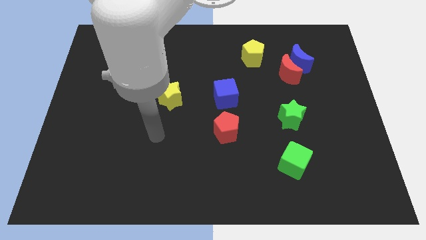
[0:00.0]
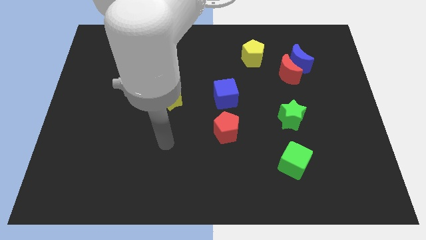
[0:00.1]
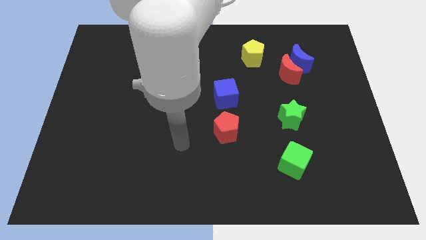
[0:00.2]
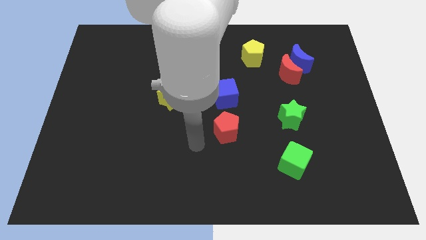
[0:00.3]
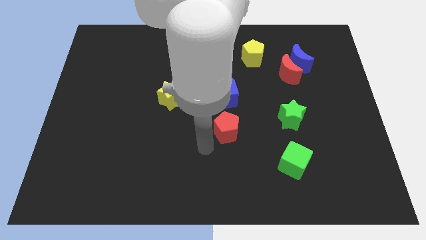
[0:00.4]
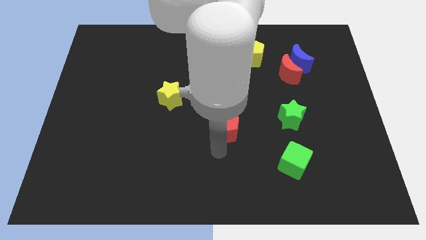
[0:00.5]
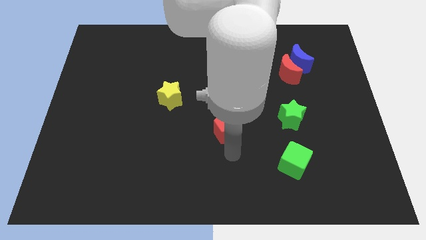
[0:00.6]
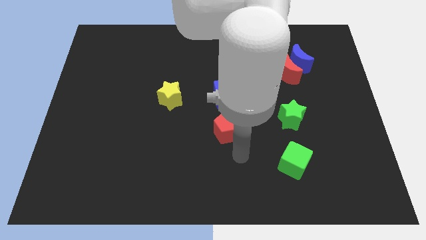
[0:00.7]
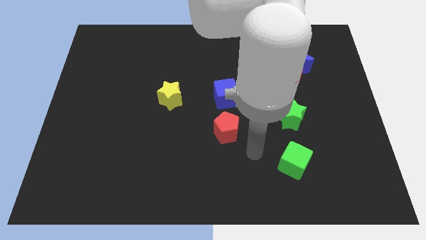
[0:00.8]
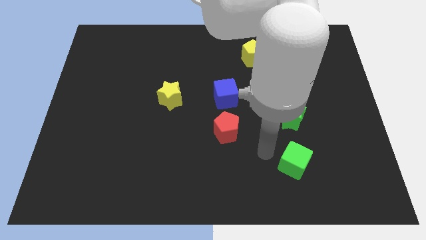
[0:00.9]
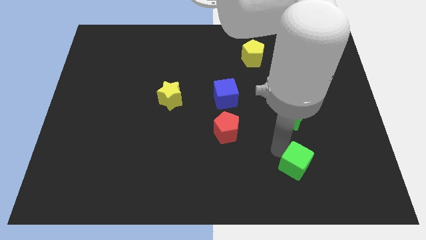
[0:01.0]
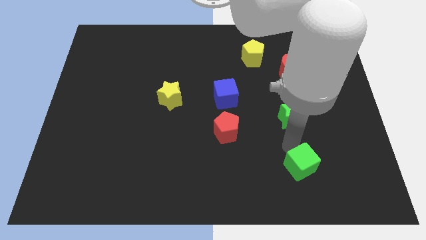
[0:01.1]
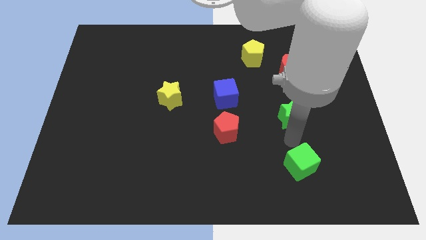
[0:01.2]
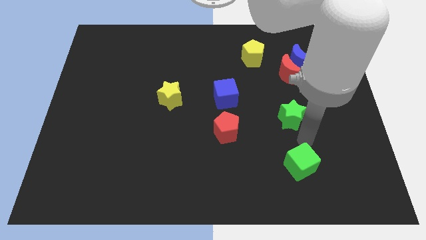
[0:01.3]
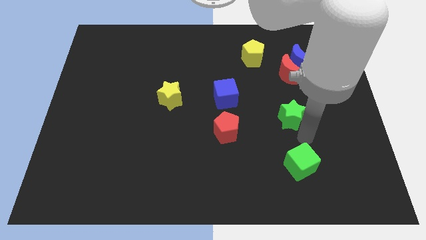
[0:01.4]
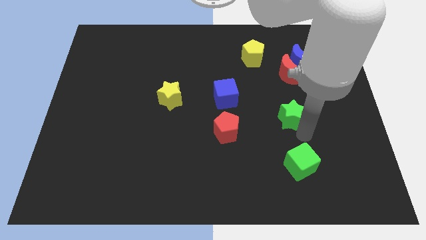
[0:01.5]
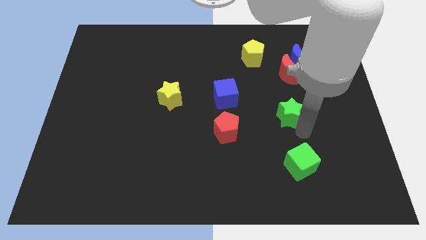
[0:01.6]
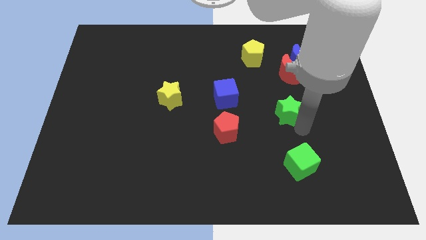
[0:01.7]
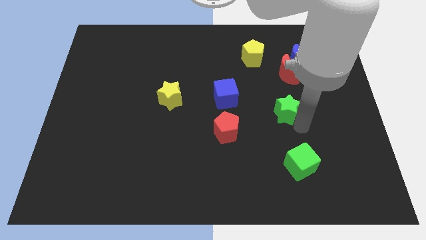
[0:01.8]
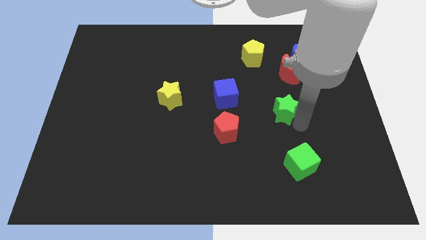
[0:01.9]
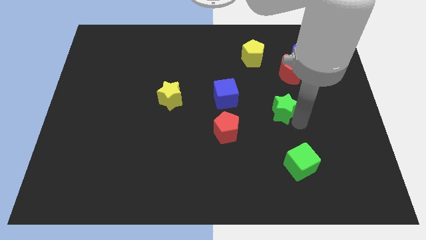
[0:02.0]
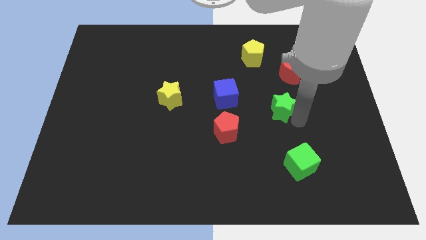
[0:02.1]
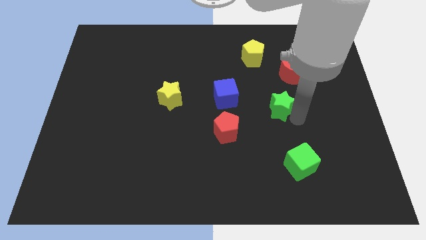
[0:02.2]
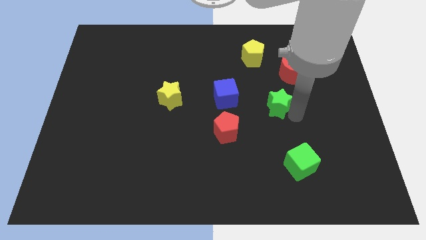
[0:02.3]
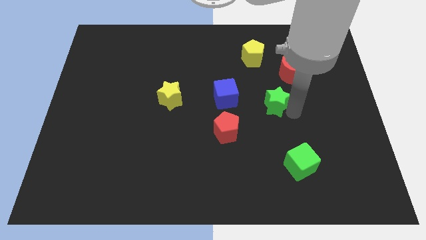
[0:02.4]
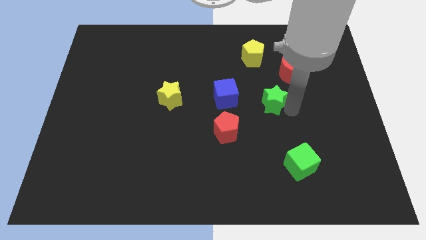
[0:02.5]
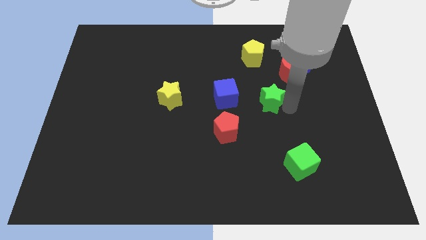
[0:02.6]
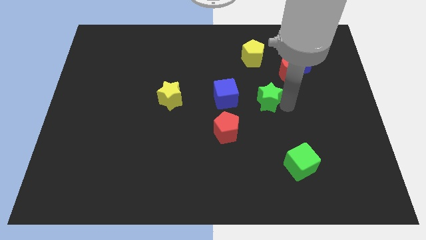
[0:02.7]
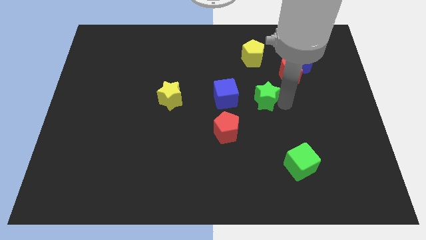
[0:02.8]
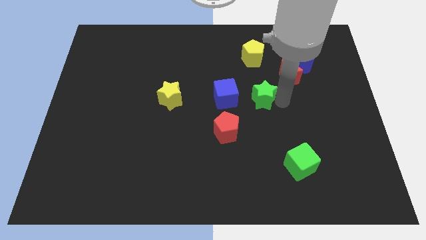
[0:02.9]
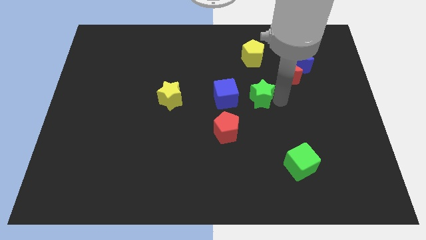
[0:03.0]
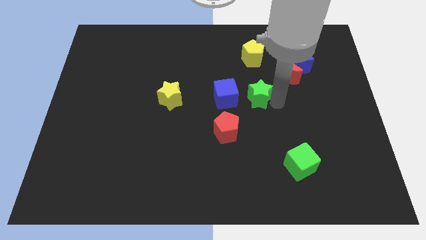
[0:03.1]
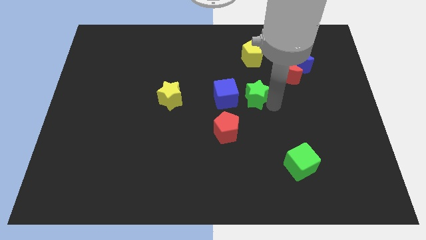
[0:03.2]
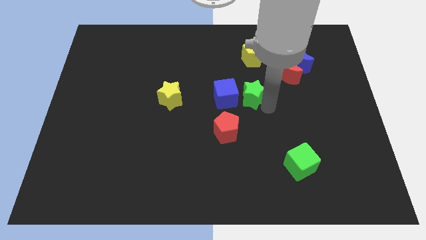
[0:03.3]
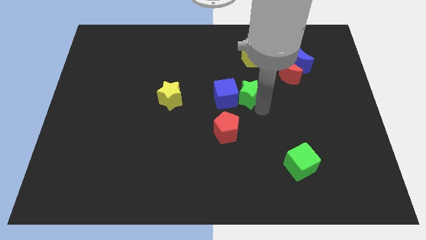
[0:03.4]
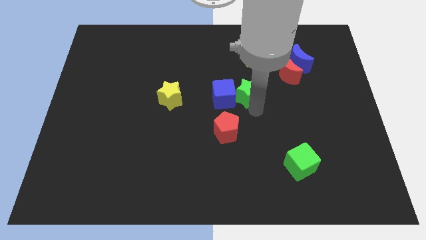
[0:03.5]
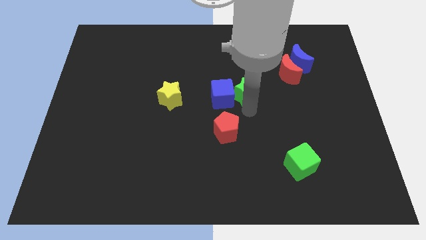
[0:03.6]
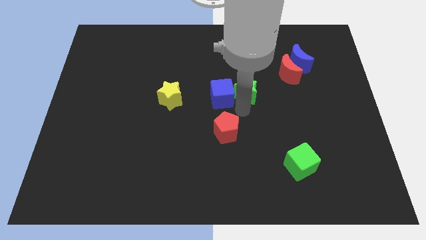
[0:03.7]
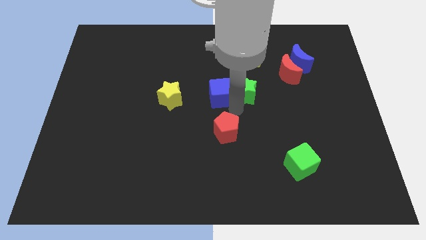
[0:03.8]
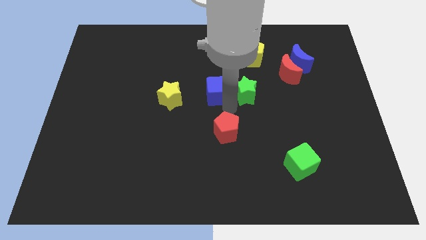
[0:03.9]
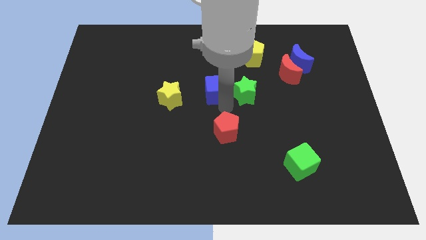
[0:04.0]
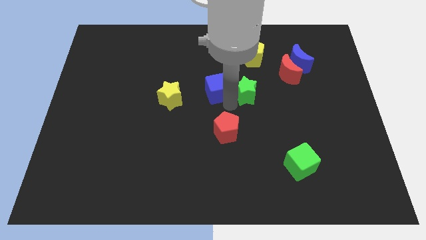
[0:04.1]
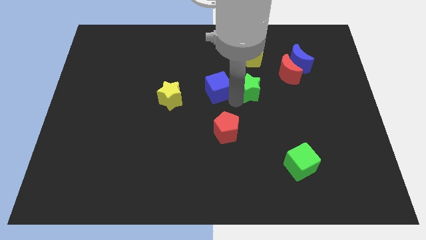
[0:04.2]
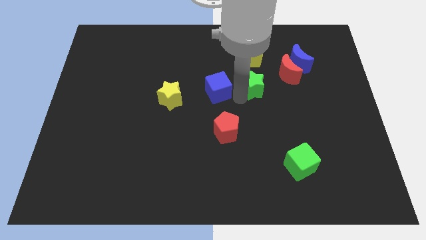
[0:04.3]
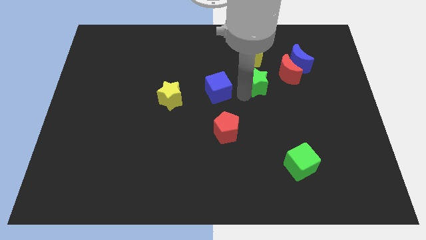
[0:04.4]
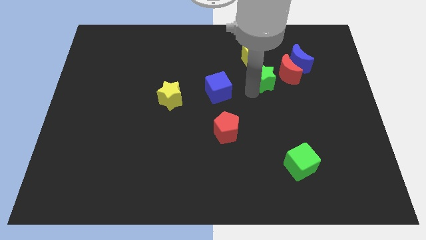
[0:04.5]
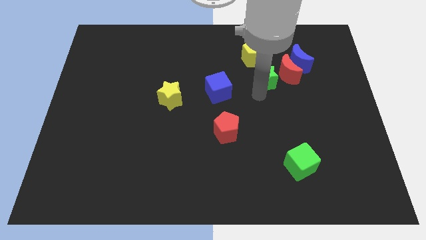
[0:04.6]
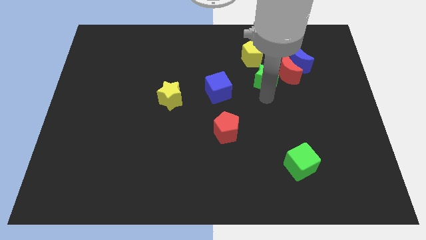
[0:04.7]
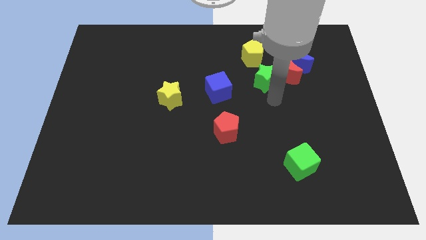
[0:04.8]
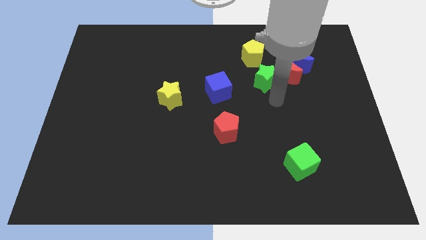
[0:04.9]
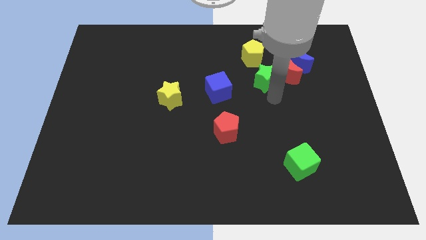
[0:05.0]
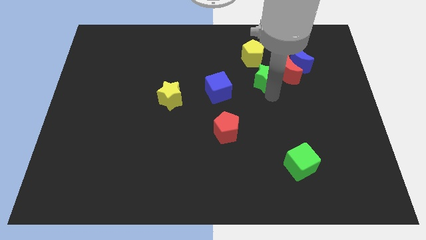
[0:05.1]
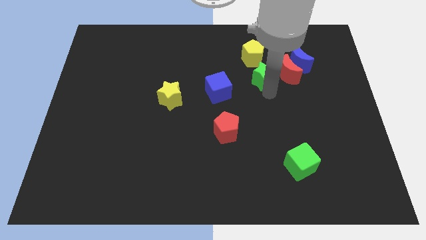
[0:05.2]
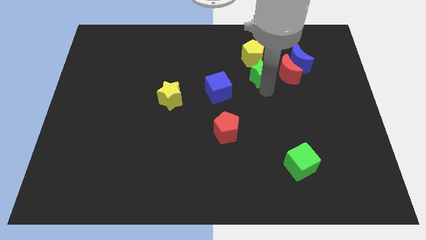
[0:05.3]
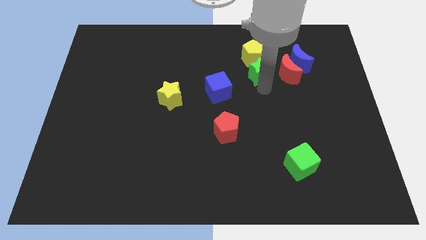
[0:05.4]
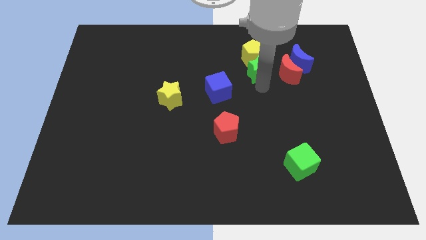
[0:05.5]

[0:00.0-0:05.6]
move the green star next to the yellow pentagon

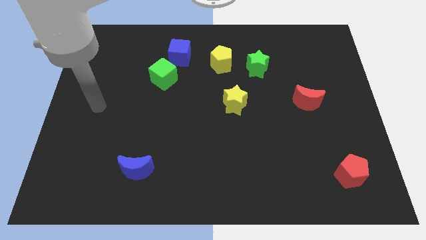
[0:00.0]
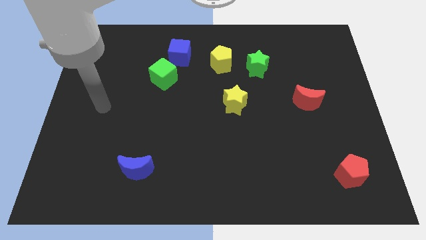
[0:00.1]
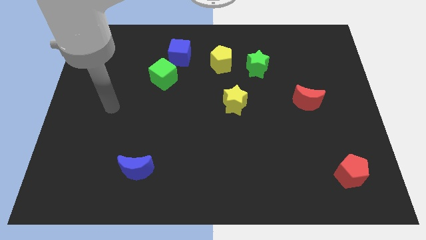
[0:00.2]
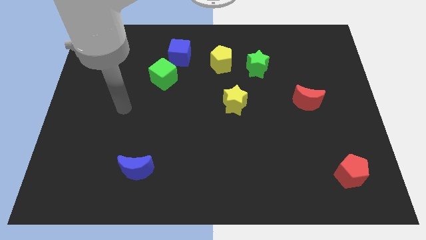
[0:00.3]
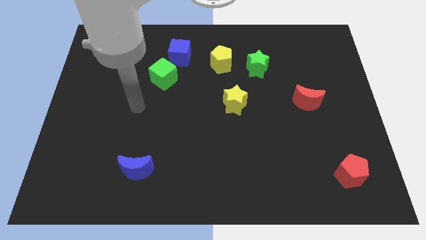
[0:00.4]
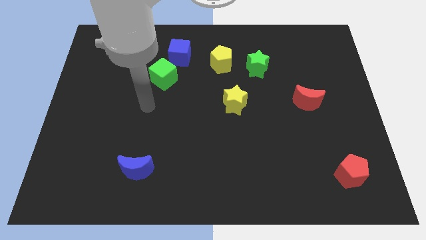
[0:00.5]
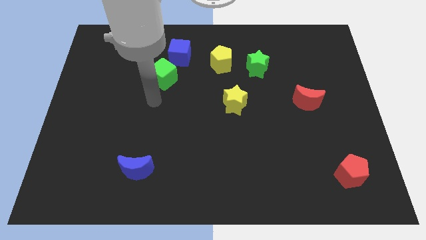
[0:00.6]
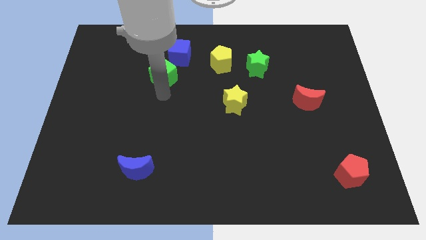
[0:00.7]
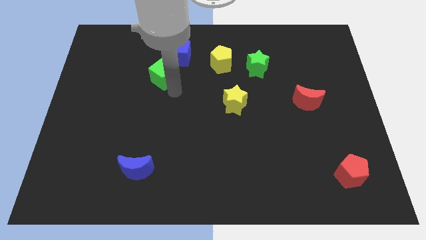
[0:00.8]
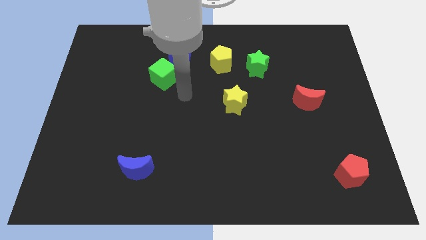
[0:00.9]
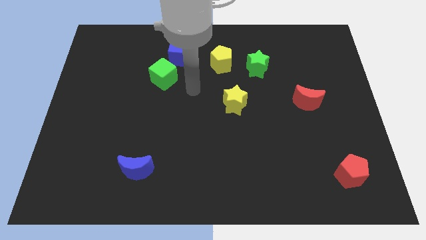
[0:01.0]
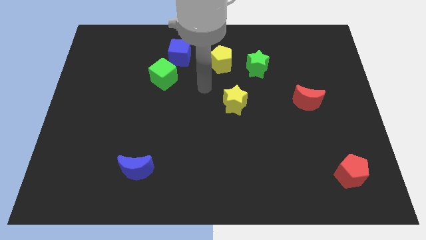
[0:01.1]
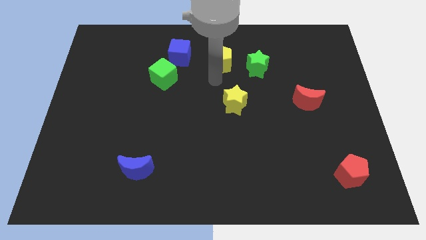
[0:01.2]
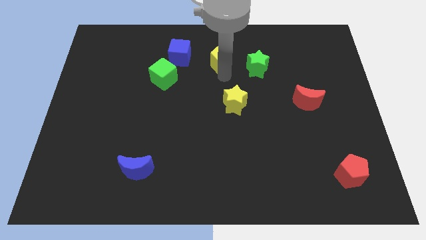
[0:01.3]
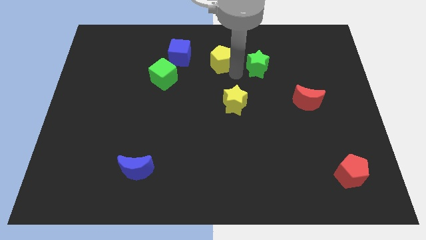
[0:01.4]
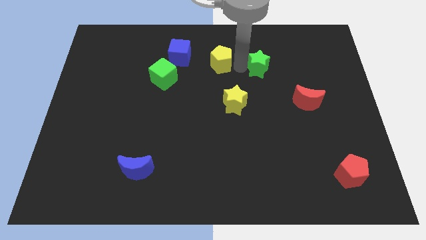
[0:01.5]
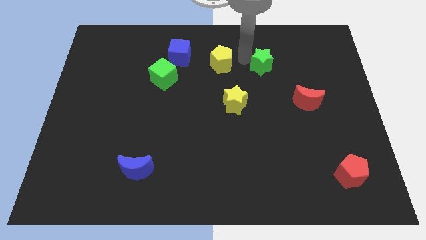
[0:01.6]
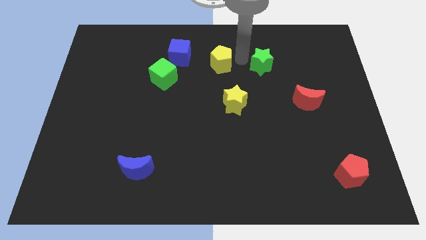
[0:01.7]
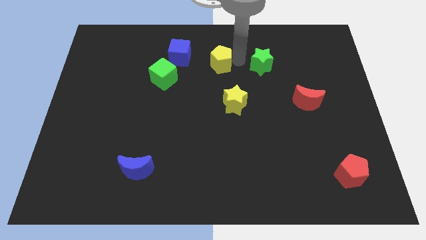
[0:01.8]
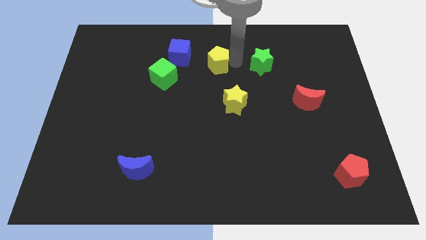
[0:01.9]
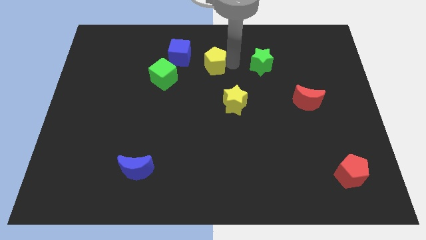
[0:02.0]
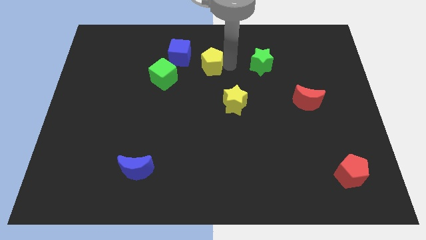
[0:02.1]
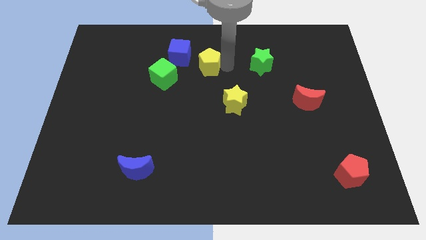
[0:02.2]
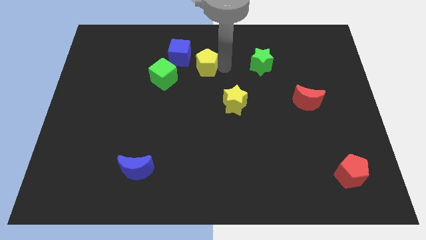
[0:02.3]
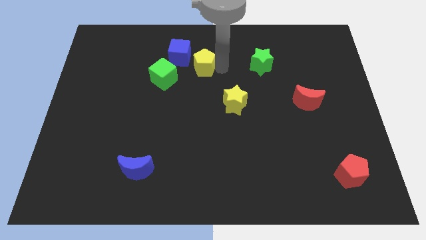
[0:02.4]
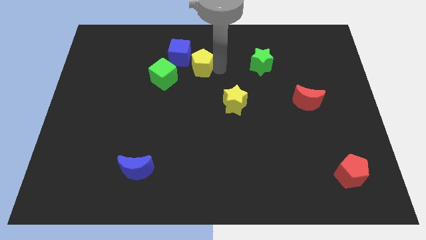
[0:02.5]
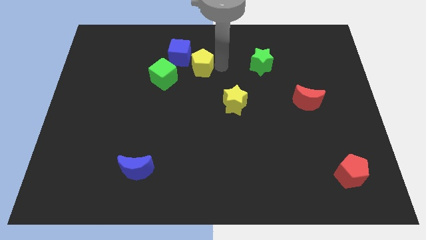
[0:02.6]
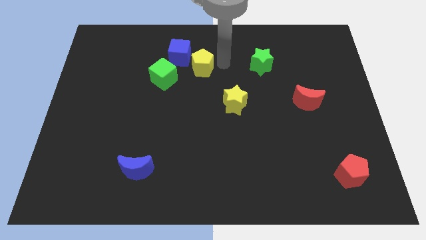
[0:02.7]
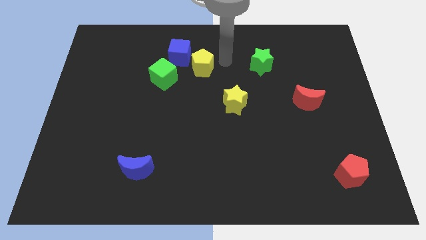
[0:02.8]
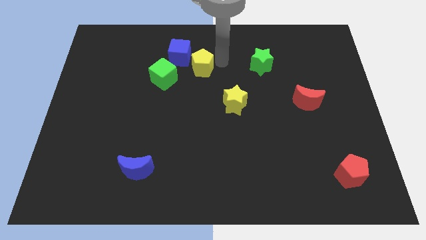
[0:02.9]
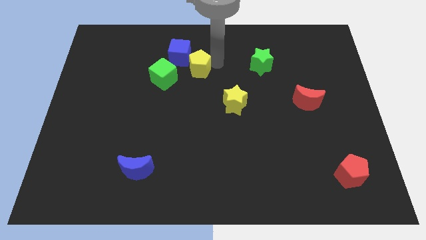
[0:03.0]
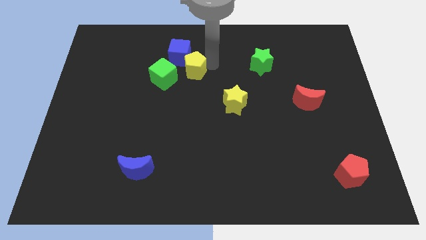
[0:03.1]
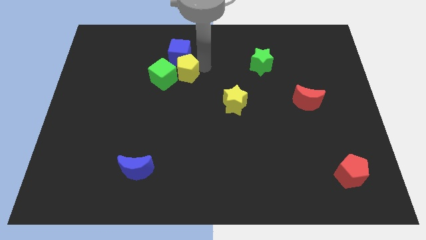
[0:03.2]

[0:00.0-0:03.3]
put the yellow pentagon towards the green cube
